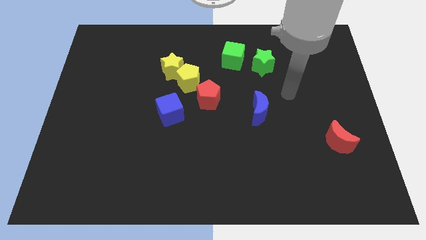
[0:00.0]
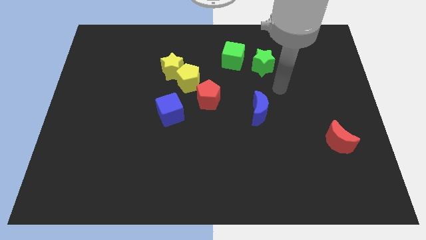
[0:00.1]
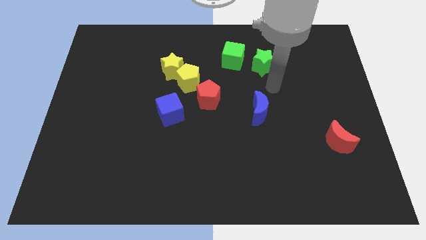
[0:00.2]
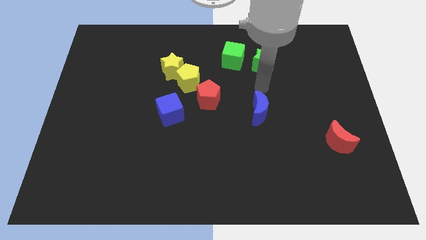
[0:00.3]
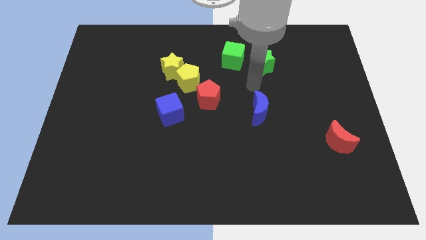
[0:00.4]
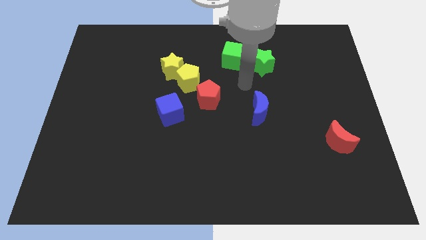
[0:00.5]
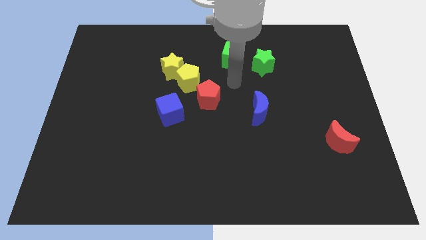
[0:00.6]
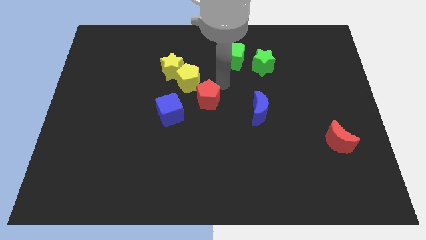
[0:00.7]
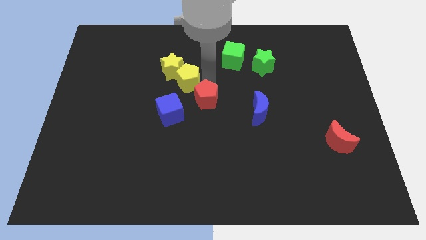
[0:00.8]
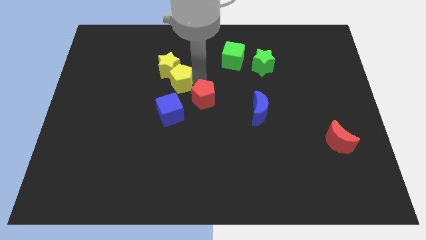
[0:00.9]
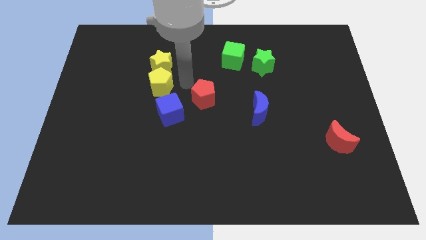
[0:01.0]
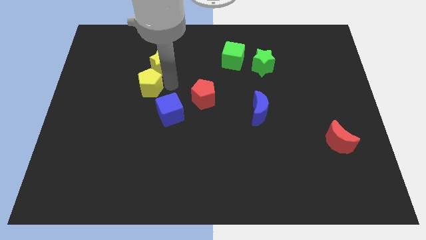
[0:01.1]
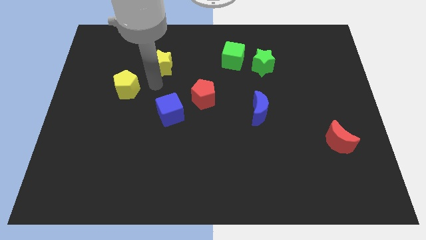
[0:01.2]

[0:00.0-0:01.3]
separate the yellow star from the yellow pentagon

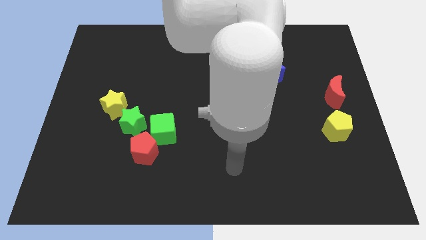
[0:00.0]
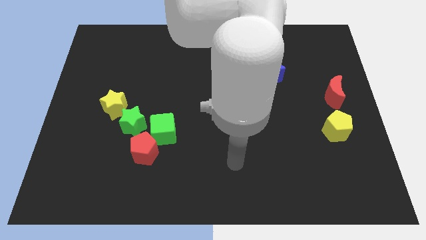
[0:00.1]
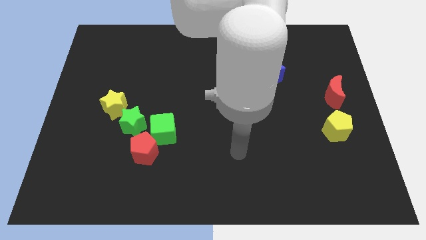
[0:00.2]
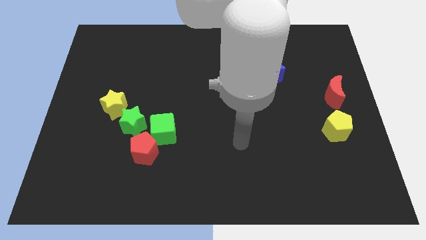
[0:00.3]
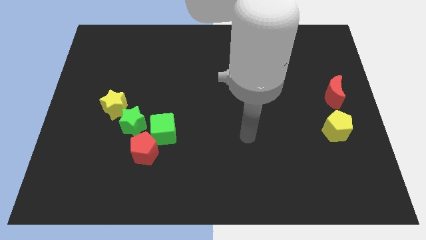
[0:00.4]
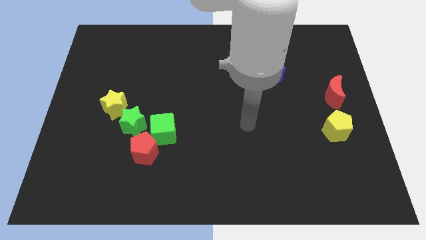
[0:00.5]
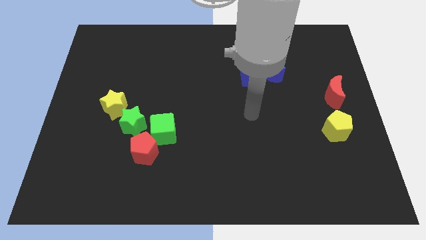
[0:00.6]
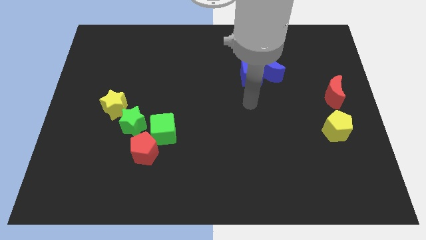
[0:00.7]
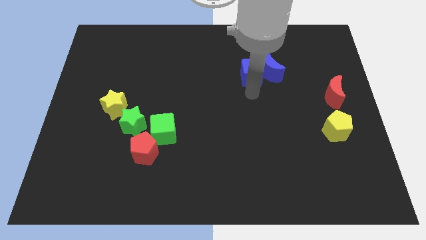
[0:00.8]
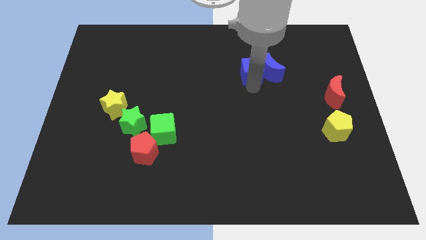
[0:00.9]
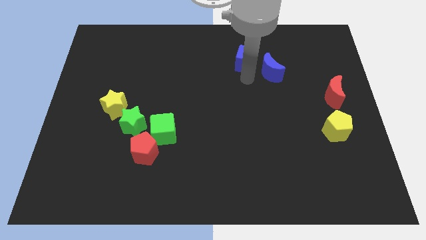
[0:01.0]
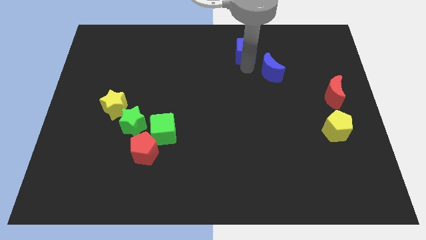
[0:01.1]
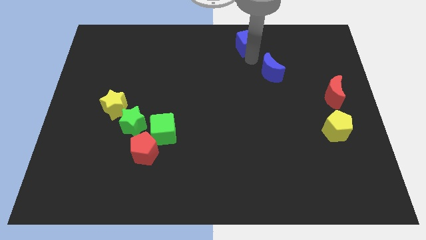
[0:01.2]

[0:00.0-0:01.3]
move the blue moon away from the blue cube

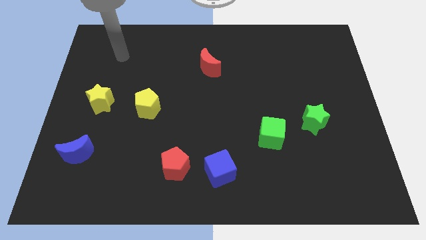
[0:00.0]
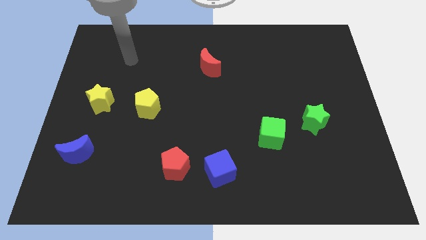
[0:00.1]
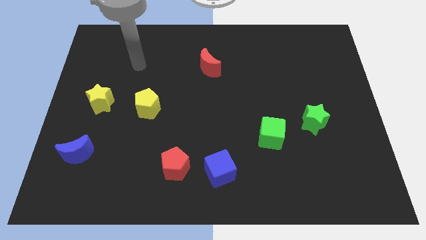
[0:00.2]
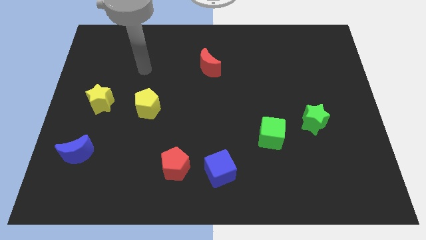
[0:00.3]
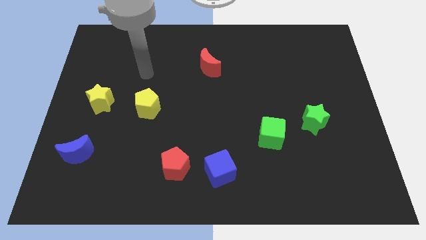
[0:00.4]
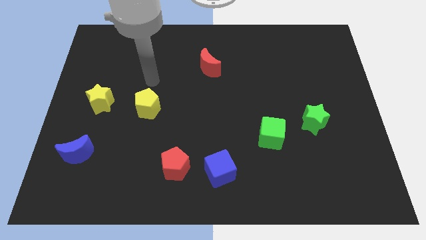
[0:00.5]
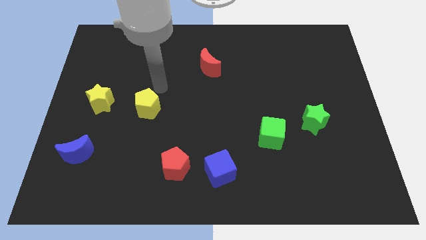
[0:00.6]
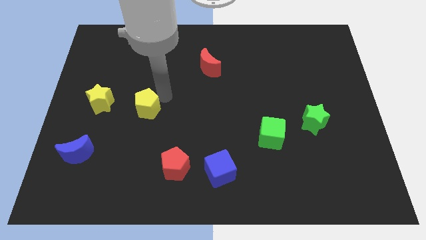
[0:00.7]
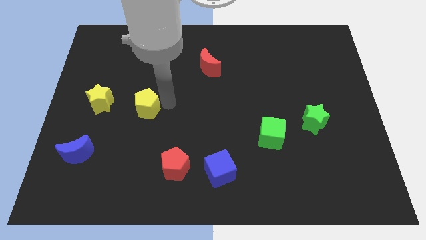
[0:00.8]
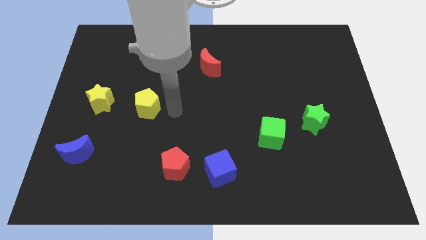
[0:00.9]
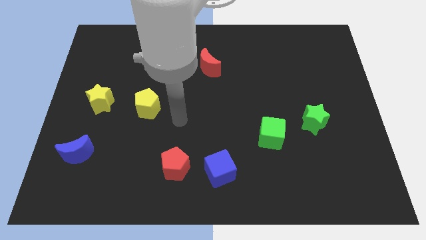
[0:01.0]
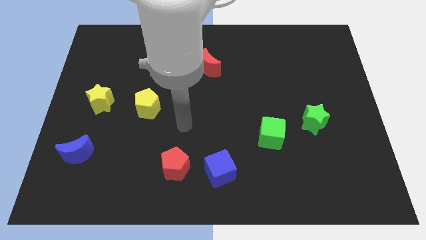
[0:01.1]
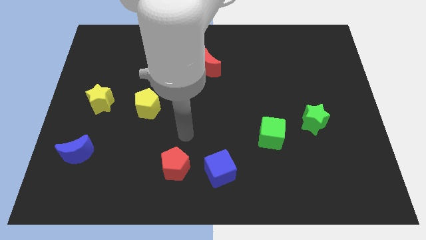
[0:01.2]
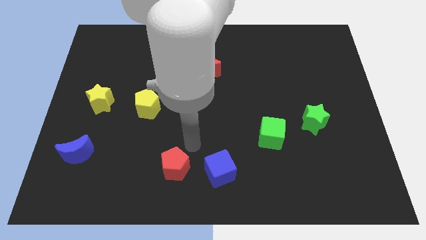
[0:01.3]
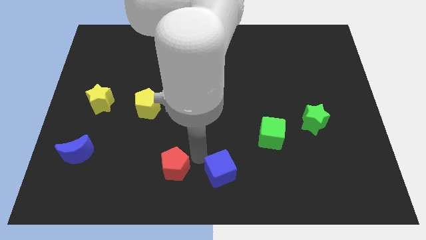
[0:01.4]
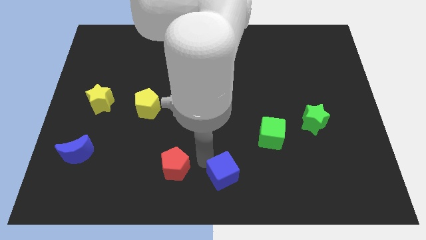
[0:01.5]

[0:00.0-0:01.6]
separate the red pentagon from the blue cube

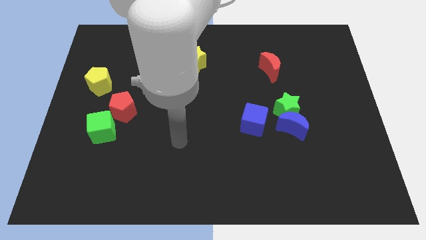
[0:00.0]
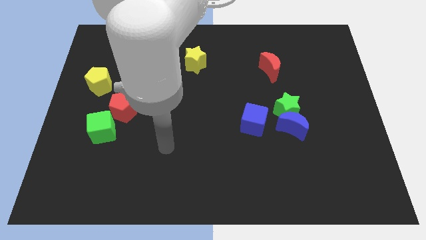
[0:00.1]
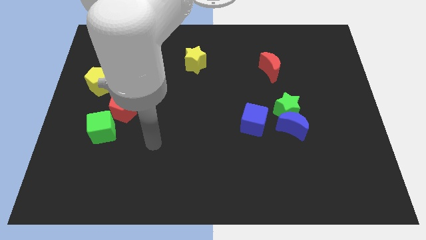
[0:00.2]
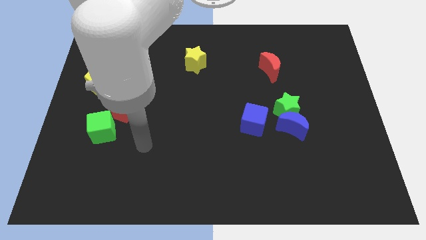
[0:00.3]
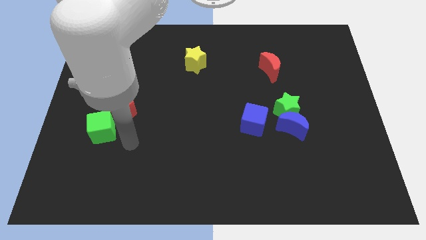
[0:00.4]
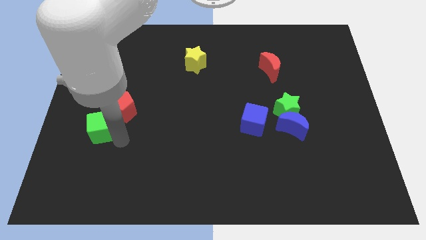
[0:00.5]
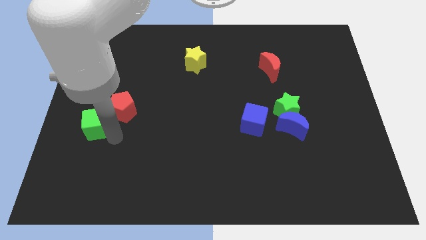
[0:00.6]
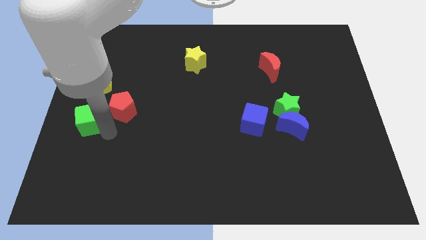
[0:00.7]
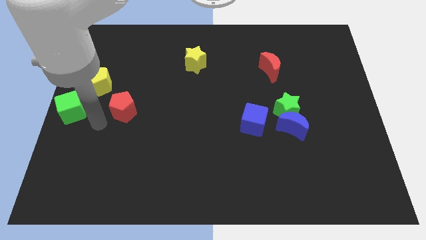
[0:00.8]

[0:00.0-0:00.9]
move the red pentagon away from the green cube

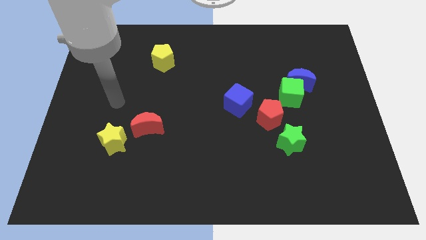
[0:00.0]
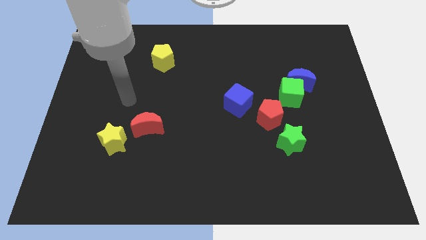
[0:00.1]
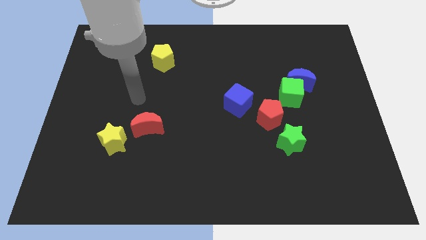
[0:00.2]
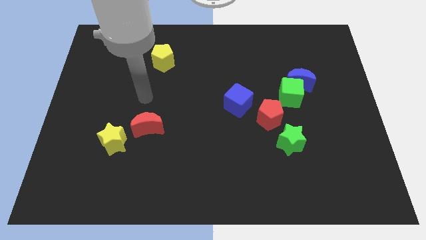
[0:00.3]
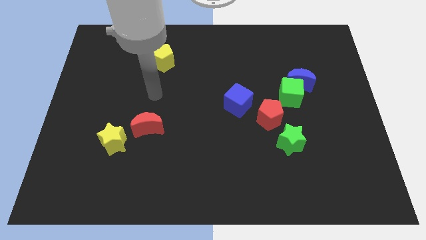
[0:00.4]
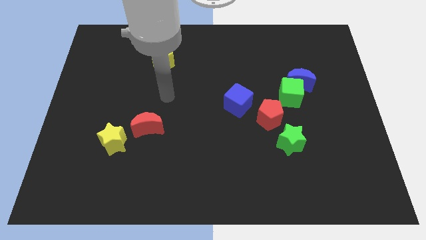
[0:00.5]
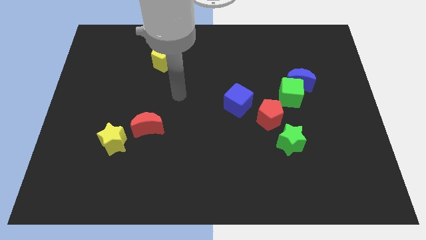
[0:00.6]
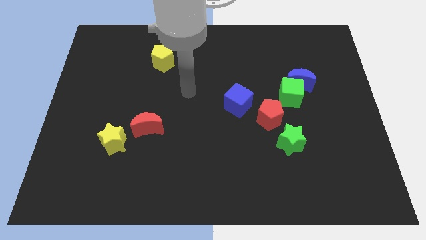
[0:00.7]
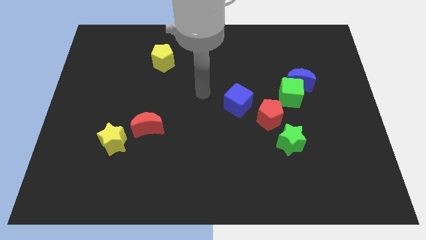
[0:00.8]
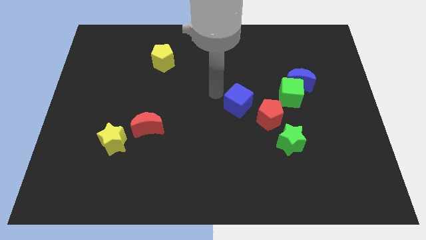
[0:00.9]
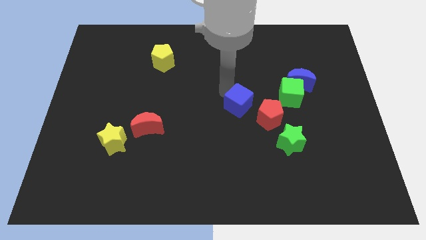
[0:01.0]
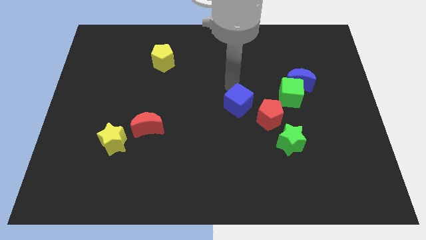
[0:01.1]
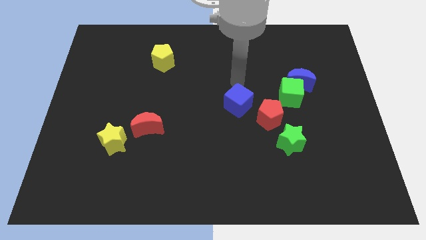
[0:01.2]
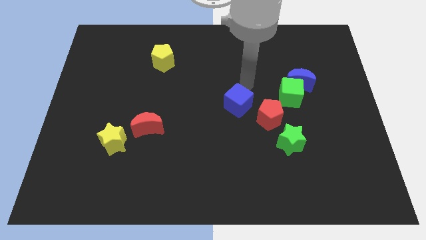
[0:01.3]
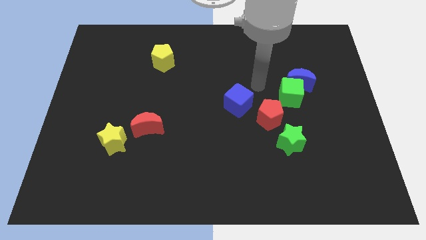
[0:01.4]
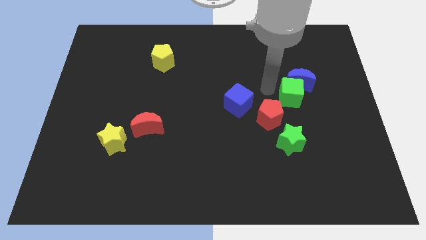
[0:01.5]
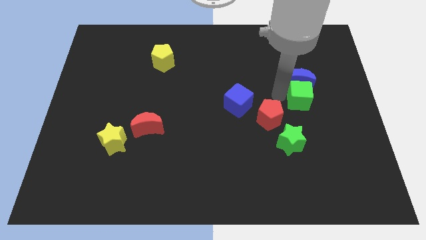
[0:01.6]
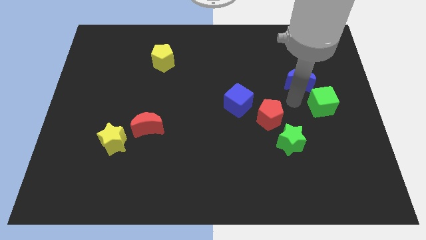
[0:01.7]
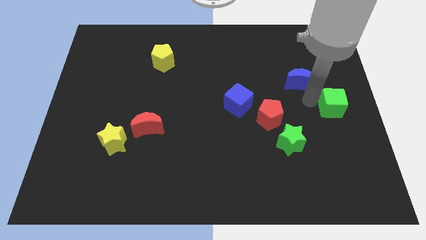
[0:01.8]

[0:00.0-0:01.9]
move the blue moon away from the green cube

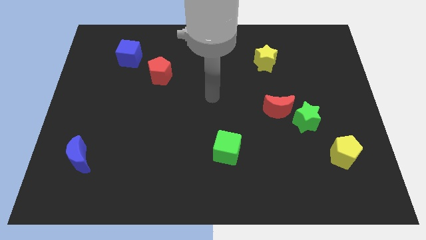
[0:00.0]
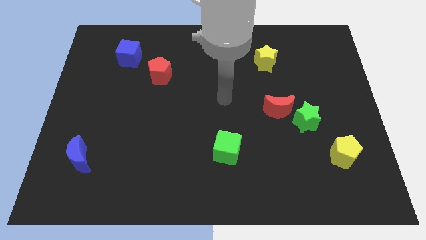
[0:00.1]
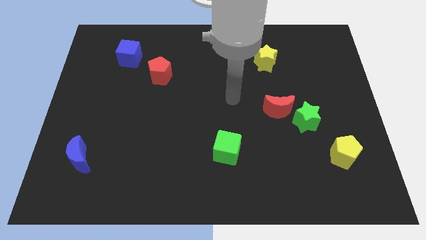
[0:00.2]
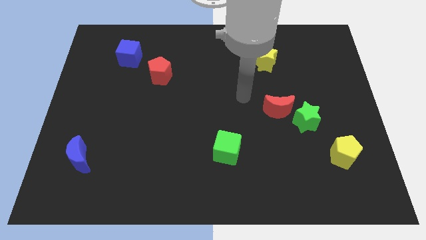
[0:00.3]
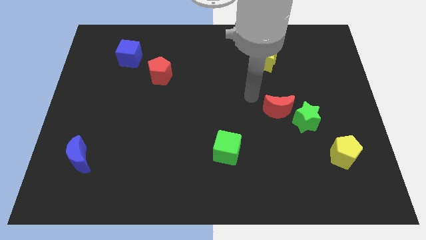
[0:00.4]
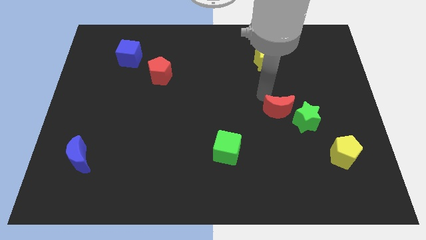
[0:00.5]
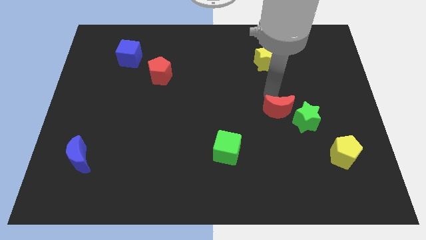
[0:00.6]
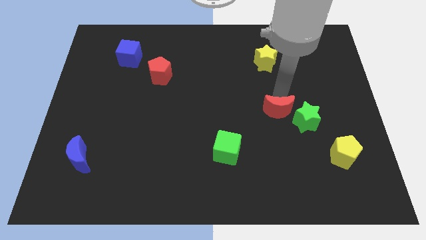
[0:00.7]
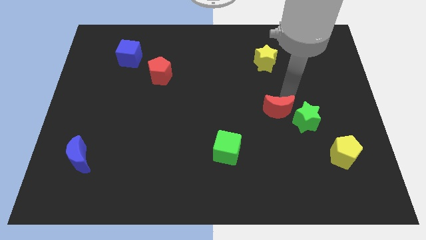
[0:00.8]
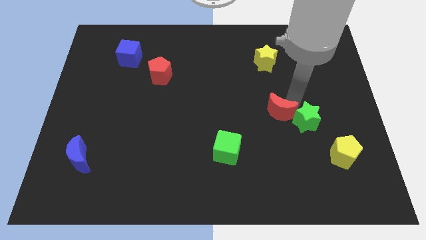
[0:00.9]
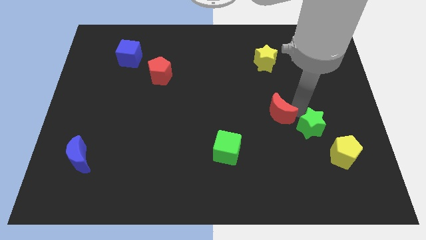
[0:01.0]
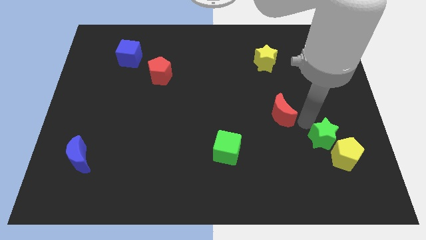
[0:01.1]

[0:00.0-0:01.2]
separate the red moon from the green star

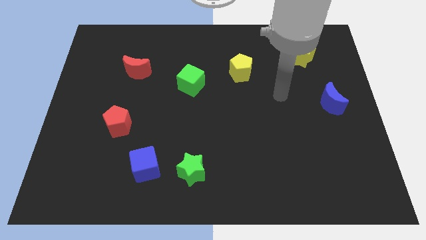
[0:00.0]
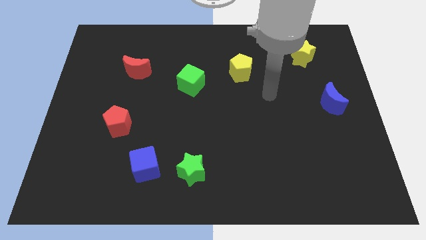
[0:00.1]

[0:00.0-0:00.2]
move the blue cube away from the green star

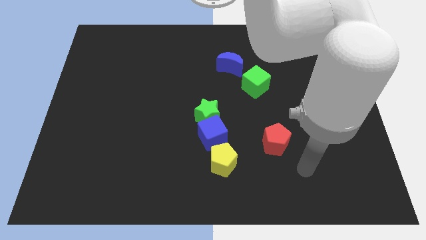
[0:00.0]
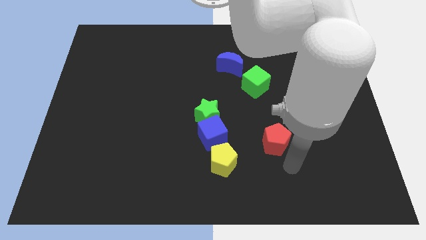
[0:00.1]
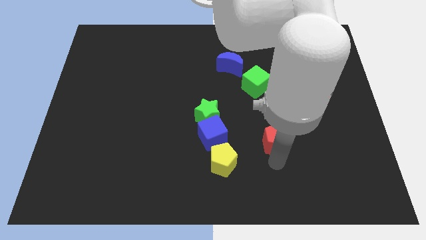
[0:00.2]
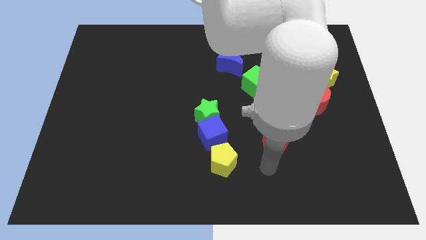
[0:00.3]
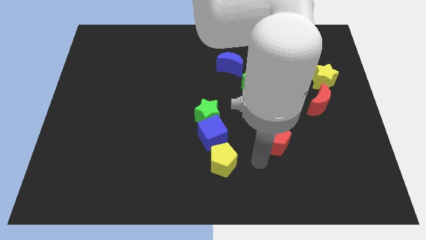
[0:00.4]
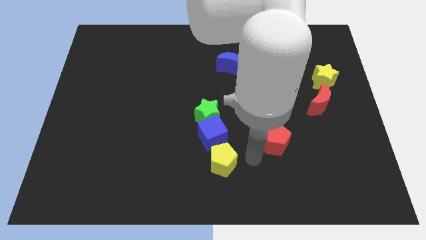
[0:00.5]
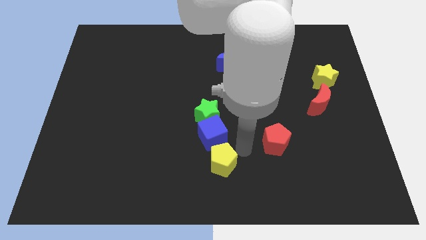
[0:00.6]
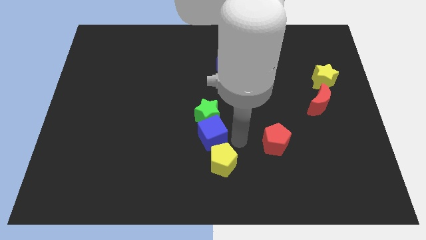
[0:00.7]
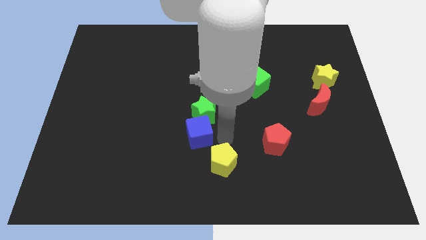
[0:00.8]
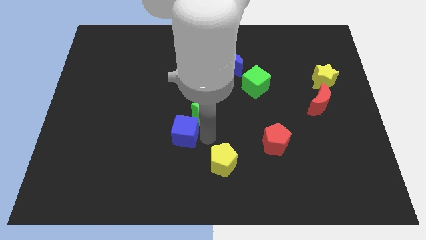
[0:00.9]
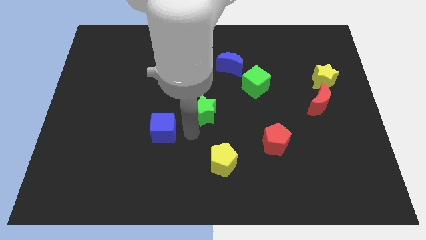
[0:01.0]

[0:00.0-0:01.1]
separate the green star from the blue cube
